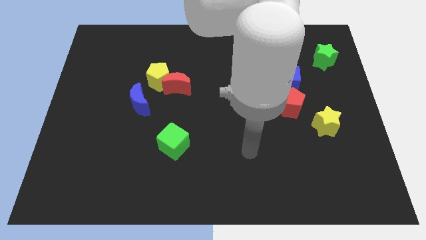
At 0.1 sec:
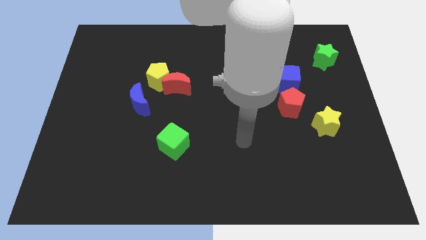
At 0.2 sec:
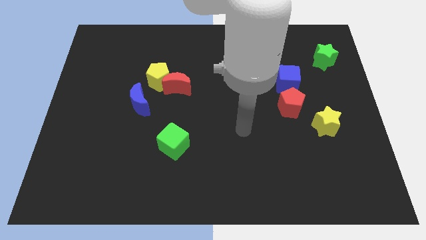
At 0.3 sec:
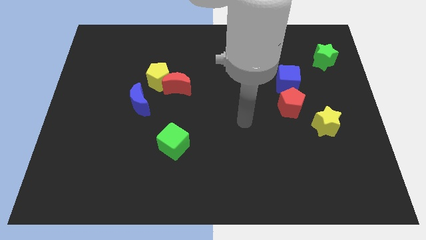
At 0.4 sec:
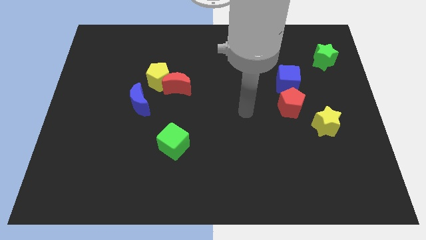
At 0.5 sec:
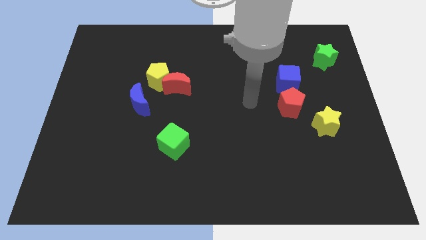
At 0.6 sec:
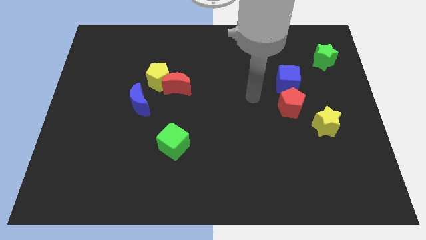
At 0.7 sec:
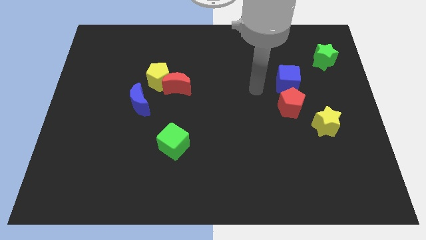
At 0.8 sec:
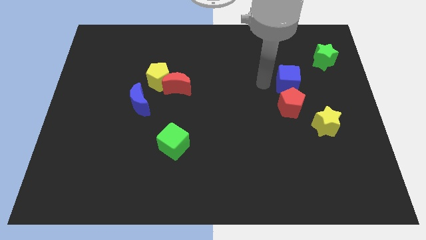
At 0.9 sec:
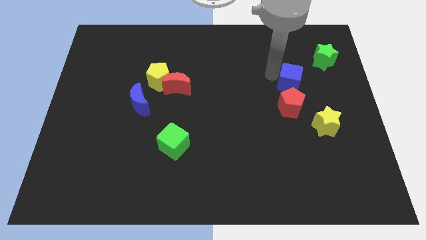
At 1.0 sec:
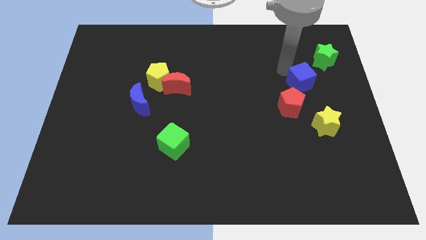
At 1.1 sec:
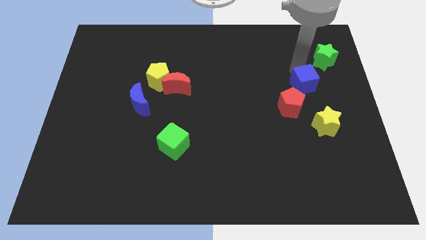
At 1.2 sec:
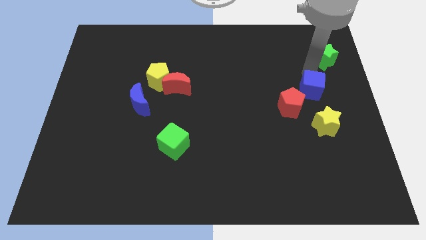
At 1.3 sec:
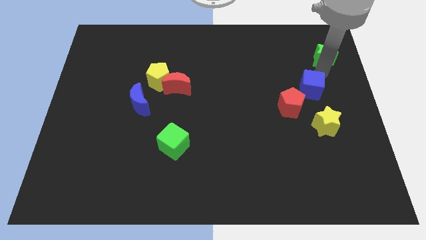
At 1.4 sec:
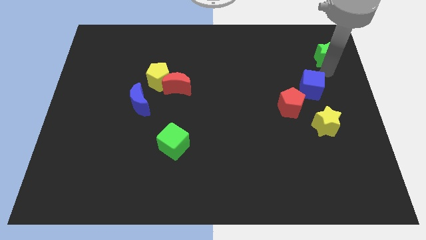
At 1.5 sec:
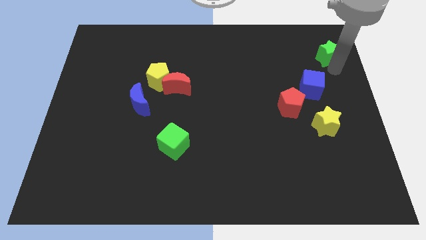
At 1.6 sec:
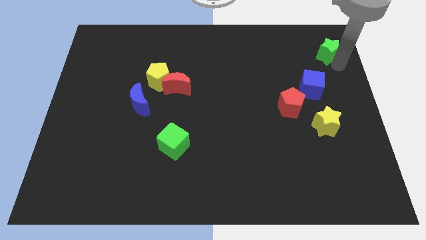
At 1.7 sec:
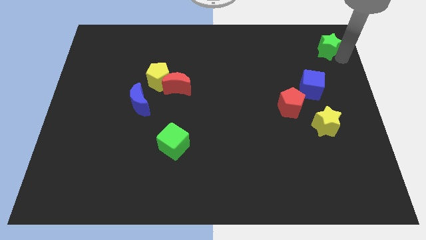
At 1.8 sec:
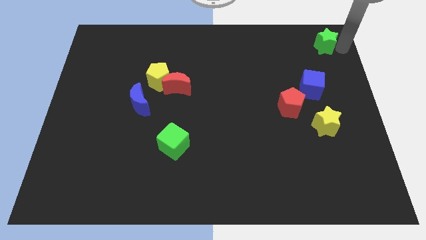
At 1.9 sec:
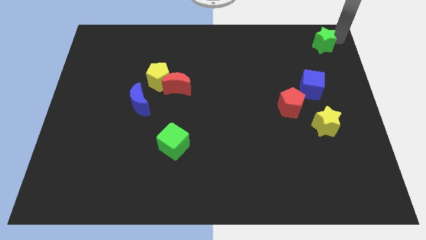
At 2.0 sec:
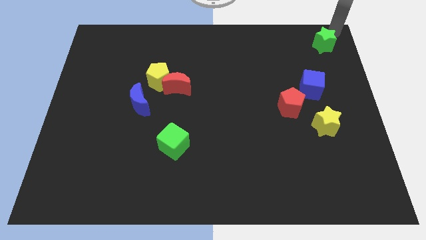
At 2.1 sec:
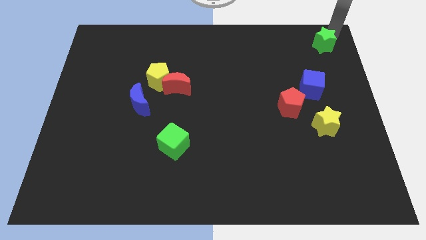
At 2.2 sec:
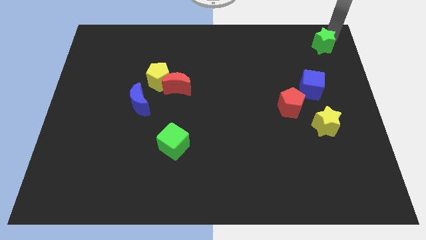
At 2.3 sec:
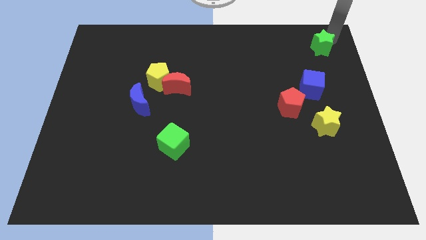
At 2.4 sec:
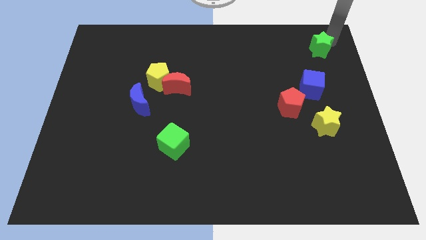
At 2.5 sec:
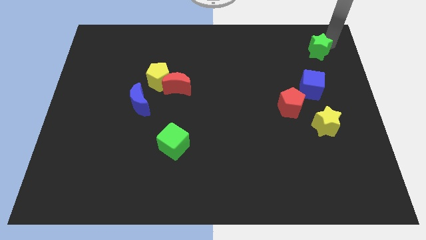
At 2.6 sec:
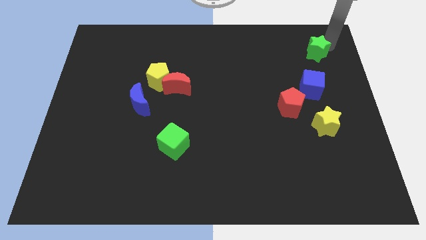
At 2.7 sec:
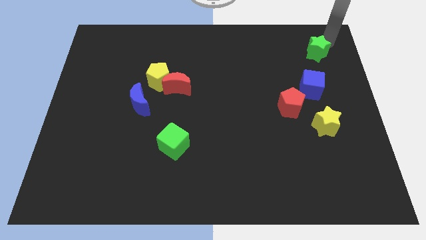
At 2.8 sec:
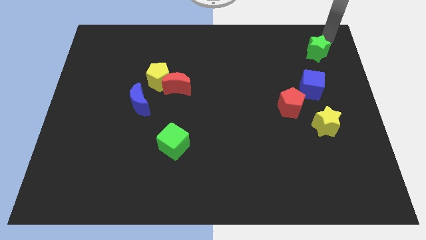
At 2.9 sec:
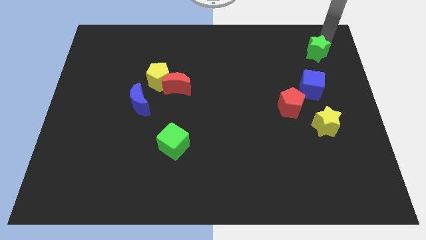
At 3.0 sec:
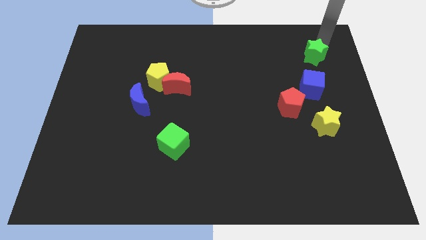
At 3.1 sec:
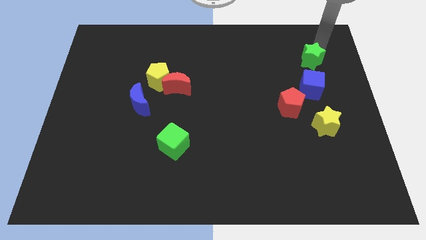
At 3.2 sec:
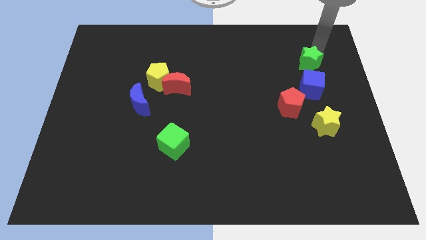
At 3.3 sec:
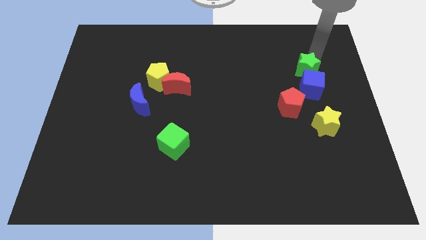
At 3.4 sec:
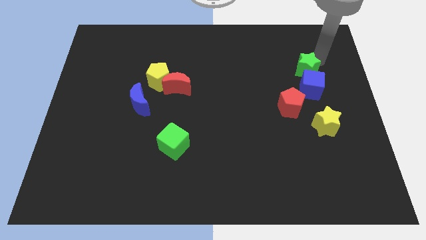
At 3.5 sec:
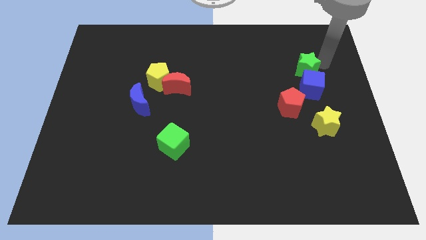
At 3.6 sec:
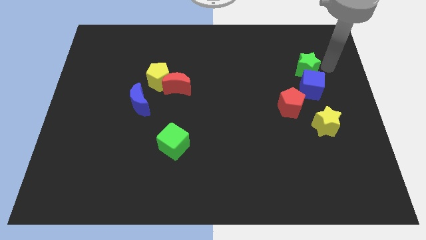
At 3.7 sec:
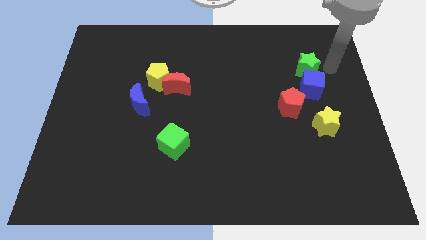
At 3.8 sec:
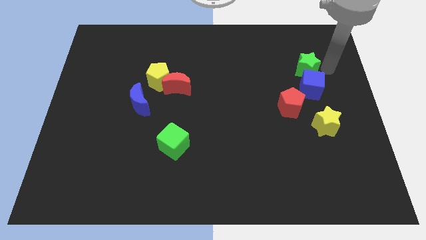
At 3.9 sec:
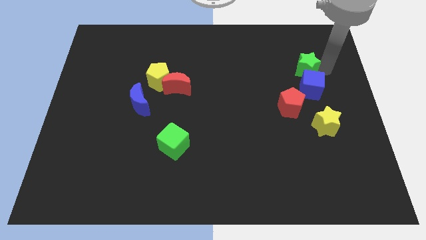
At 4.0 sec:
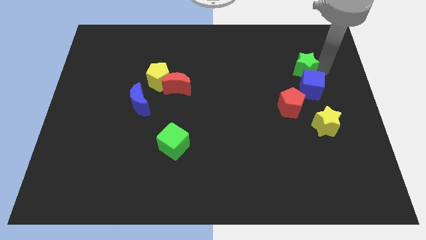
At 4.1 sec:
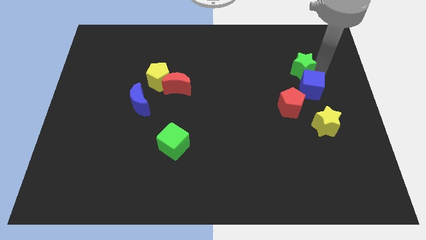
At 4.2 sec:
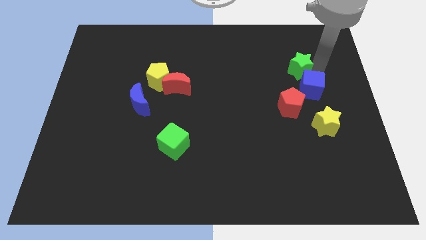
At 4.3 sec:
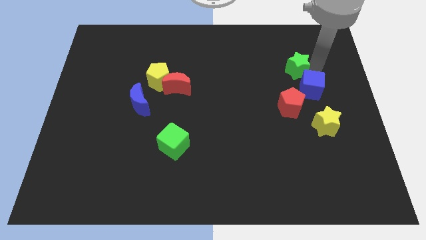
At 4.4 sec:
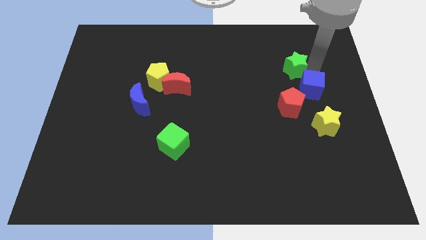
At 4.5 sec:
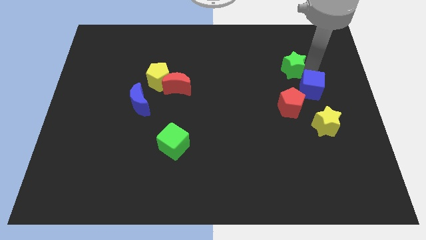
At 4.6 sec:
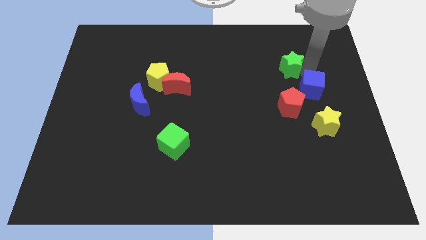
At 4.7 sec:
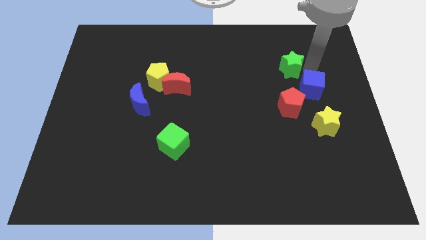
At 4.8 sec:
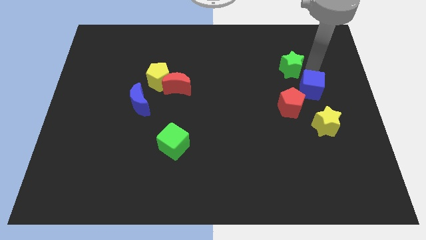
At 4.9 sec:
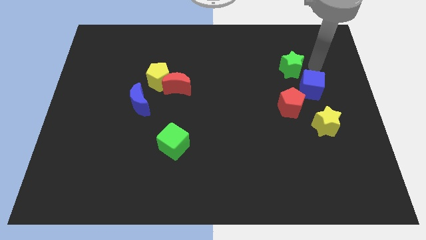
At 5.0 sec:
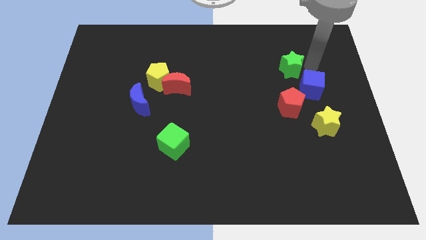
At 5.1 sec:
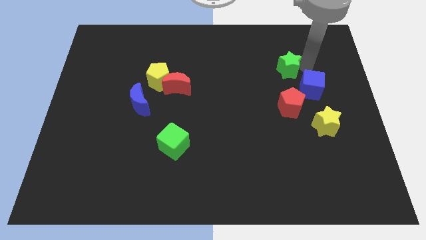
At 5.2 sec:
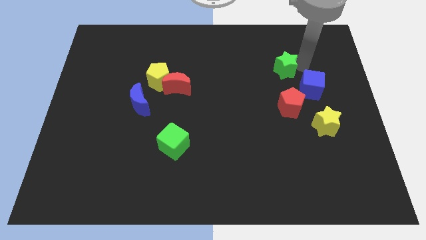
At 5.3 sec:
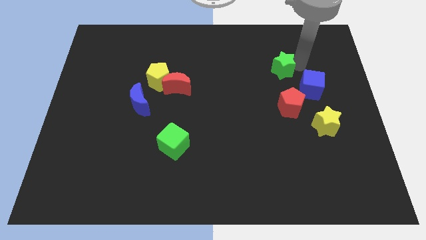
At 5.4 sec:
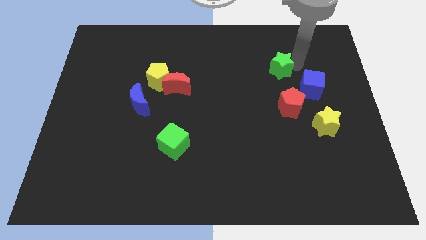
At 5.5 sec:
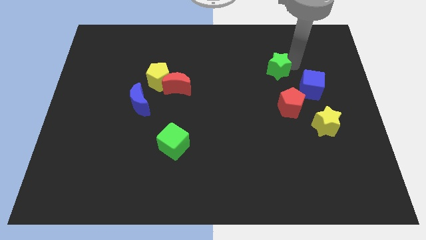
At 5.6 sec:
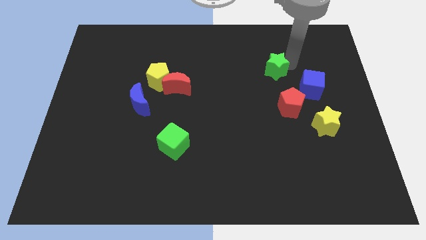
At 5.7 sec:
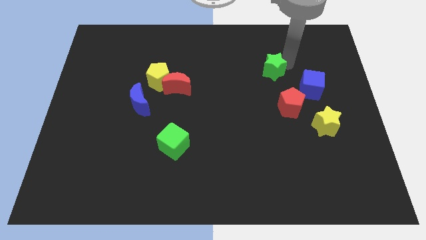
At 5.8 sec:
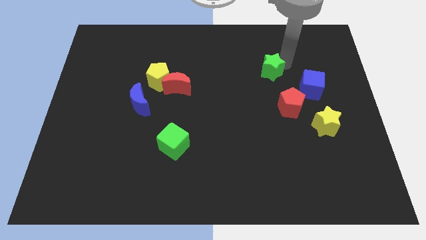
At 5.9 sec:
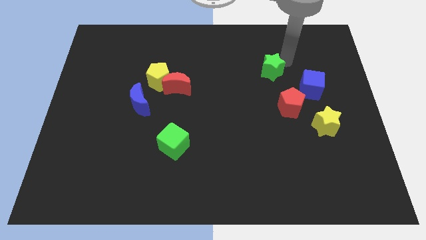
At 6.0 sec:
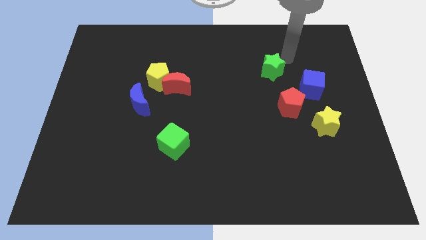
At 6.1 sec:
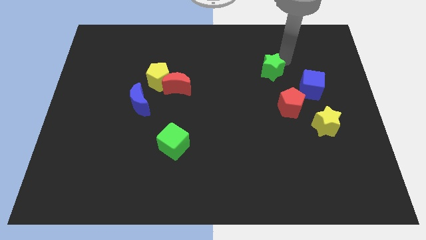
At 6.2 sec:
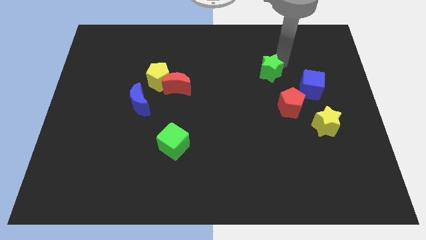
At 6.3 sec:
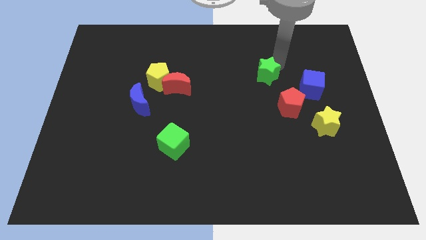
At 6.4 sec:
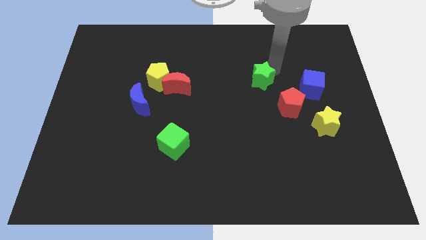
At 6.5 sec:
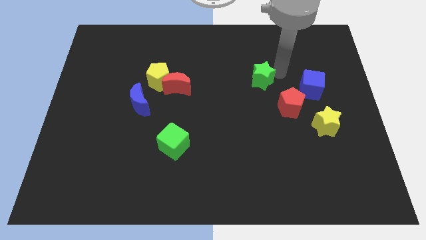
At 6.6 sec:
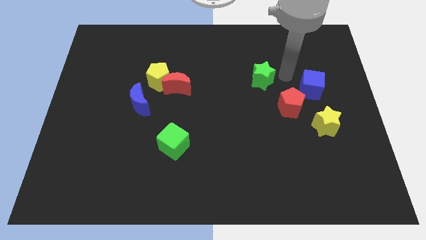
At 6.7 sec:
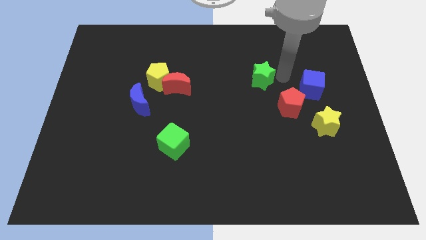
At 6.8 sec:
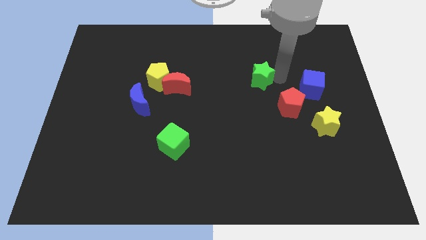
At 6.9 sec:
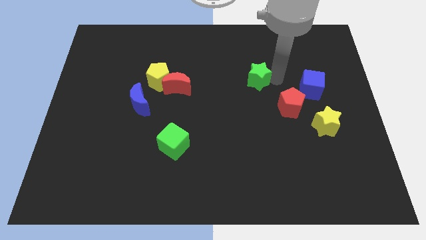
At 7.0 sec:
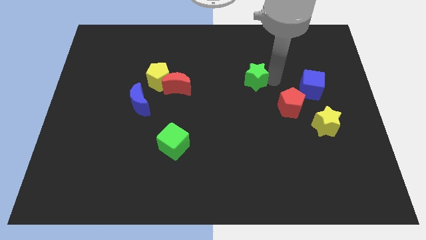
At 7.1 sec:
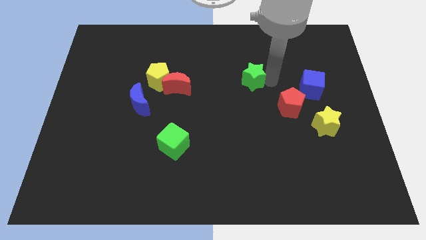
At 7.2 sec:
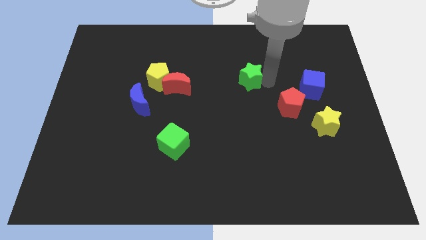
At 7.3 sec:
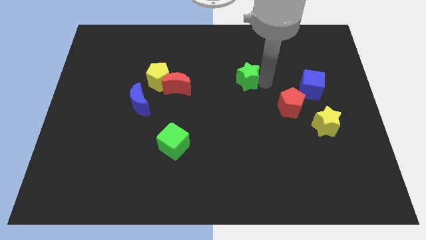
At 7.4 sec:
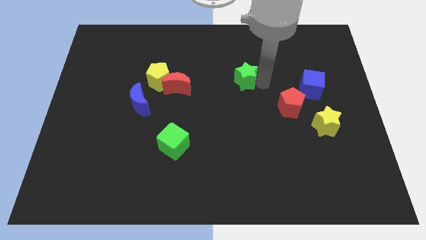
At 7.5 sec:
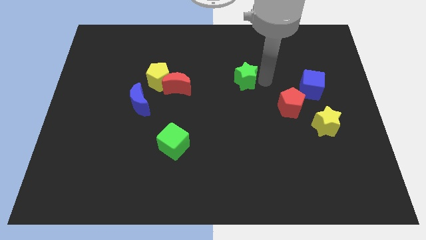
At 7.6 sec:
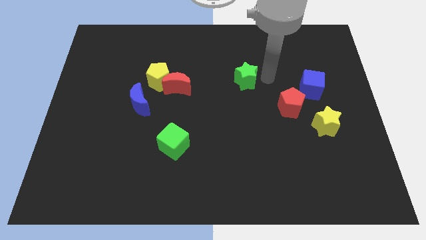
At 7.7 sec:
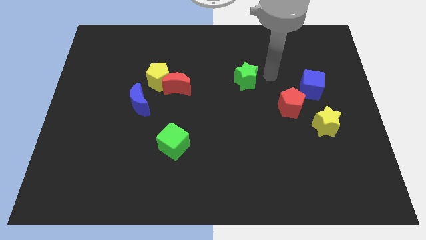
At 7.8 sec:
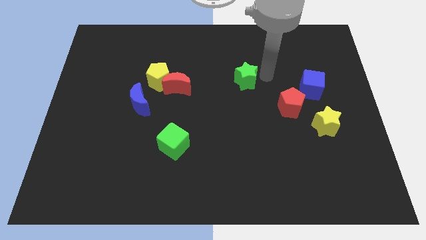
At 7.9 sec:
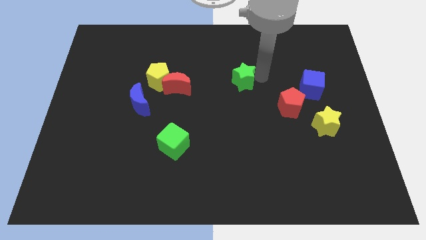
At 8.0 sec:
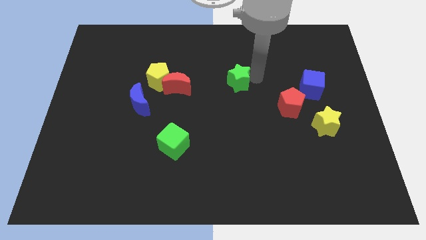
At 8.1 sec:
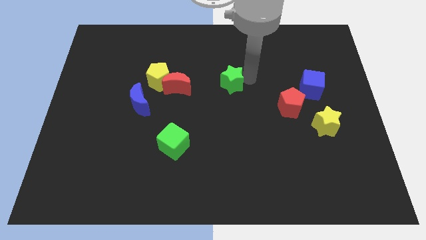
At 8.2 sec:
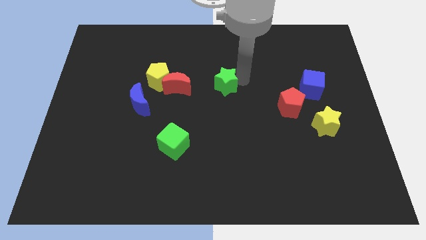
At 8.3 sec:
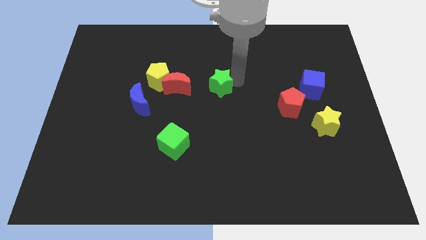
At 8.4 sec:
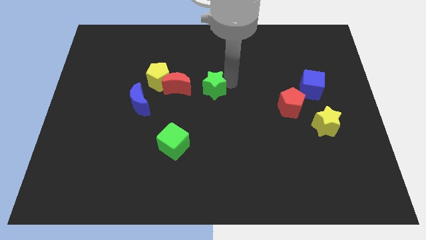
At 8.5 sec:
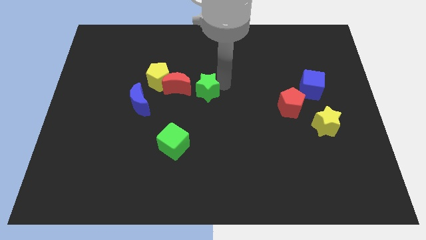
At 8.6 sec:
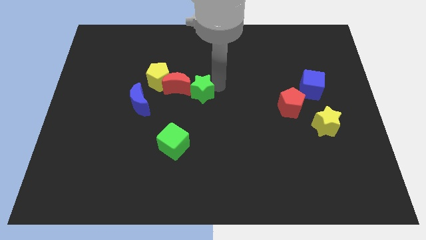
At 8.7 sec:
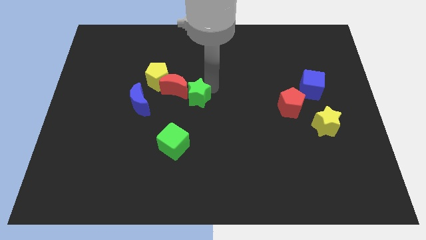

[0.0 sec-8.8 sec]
put the green star to the right of the blue moon
